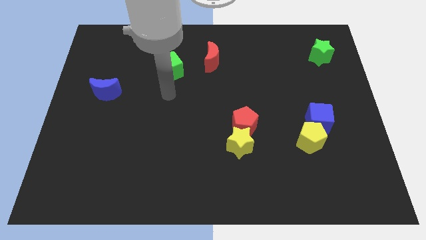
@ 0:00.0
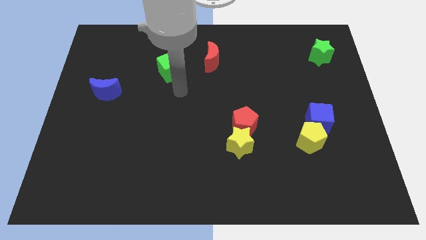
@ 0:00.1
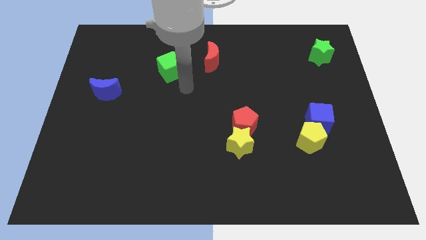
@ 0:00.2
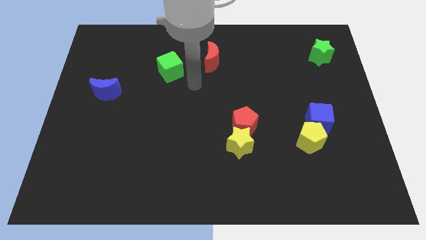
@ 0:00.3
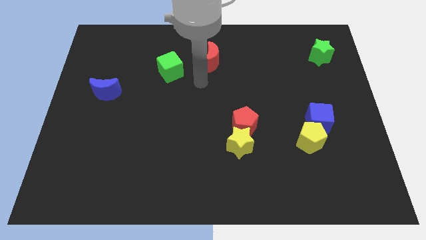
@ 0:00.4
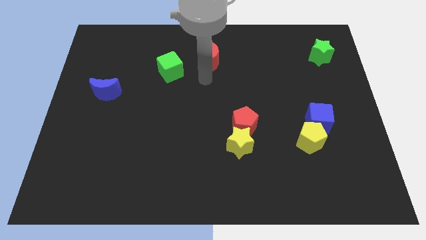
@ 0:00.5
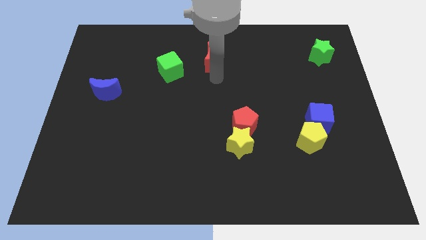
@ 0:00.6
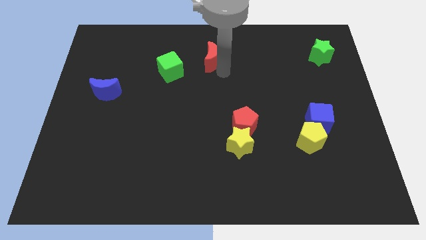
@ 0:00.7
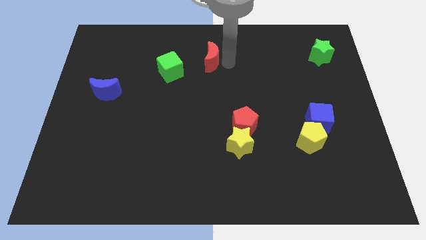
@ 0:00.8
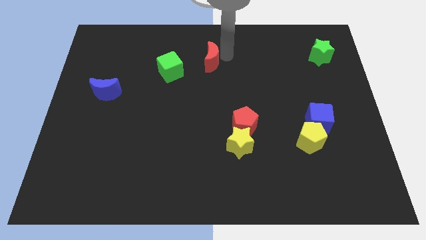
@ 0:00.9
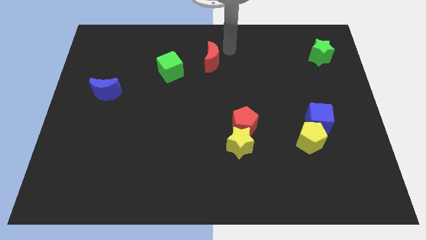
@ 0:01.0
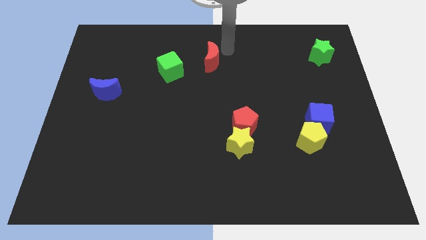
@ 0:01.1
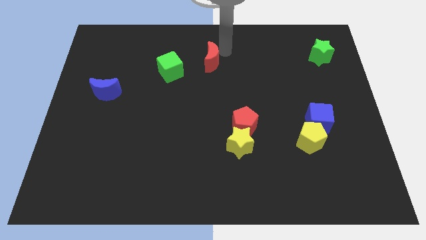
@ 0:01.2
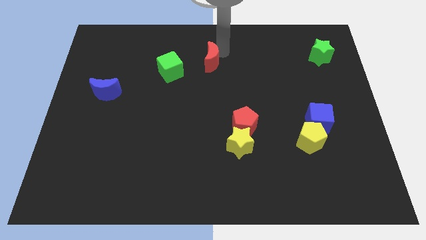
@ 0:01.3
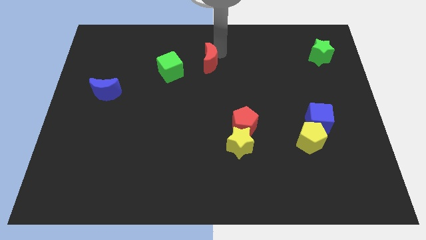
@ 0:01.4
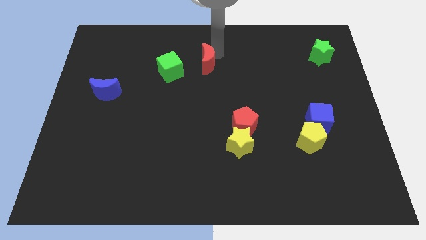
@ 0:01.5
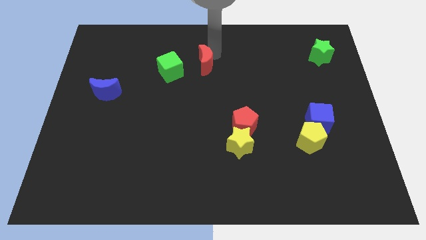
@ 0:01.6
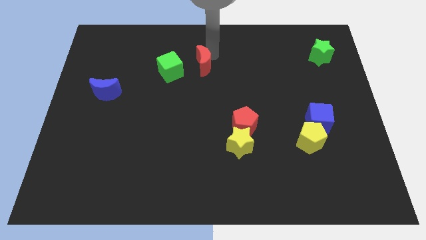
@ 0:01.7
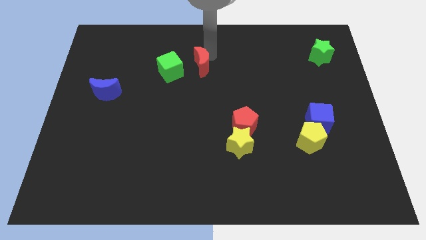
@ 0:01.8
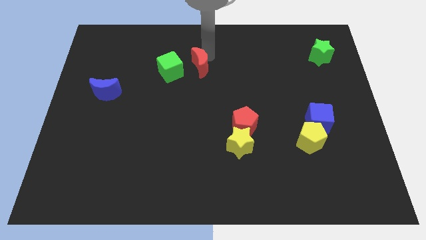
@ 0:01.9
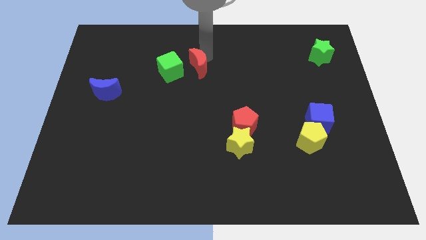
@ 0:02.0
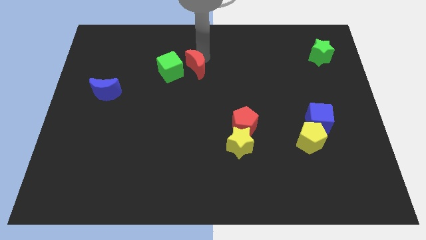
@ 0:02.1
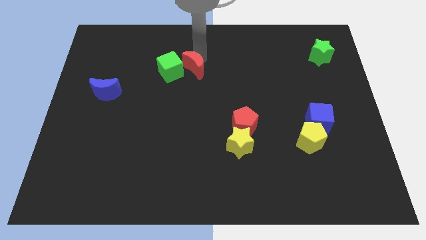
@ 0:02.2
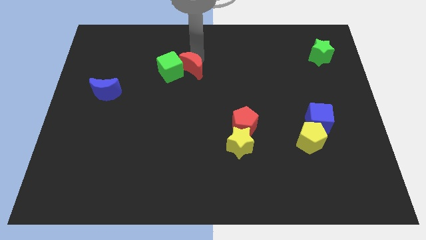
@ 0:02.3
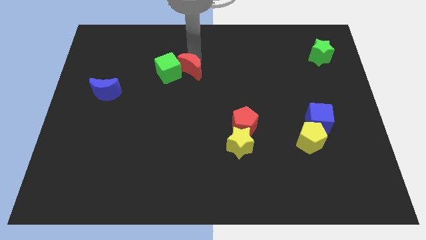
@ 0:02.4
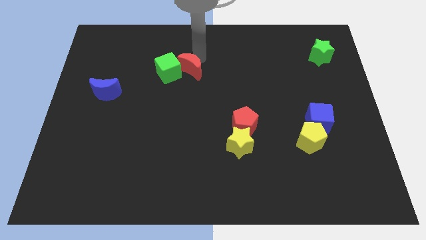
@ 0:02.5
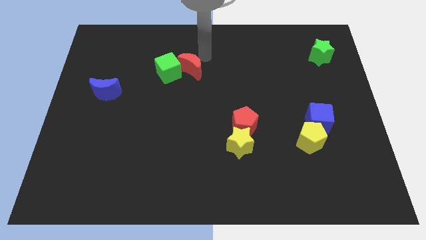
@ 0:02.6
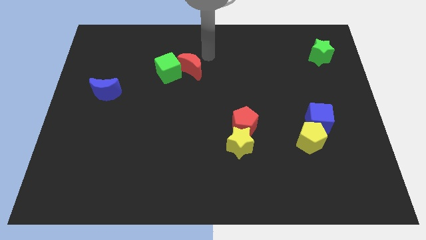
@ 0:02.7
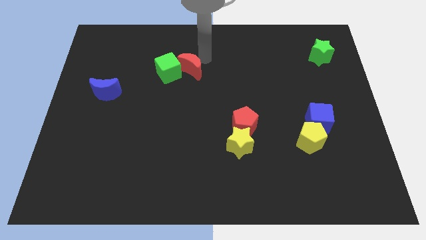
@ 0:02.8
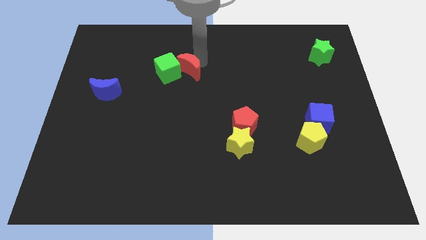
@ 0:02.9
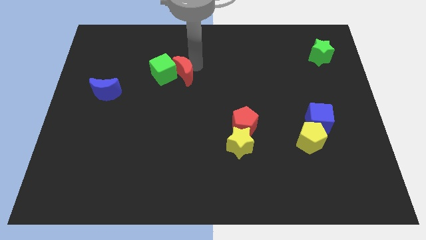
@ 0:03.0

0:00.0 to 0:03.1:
push the red moon slightly downwards and then left

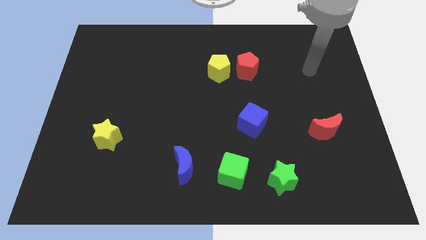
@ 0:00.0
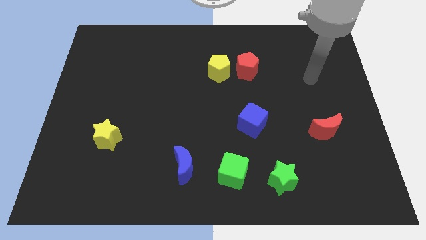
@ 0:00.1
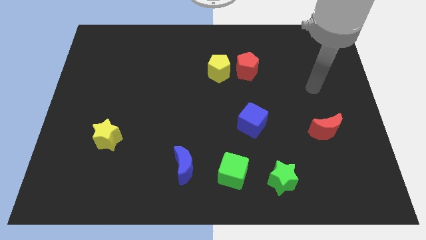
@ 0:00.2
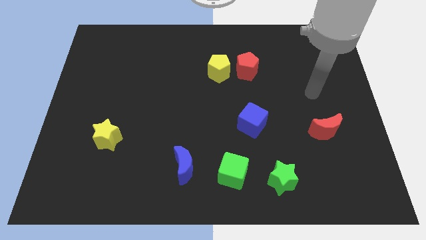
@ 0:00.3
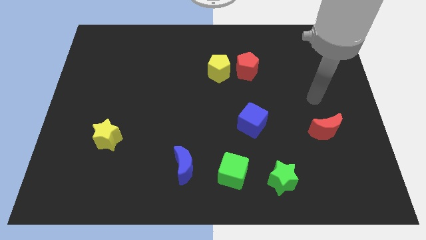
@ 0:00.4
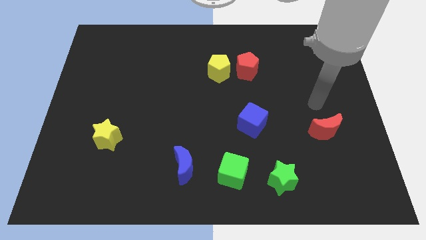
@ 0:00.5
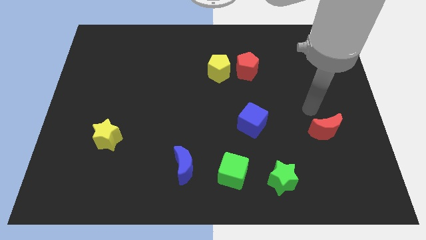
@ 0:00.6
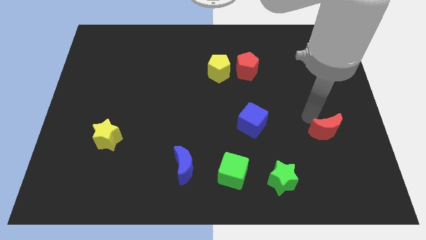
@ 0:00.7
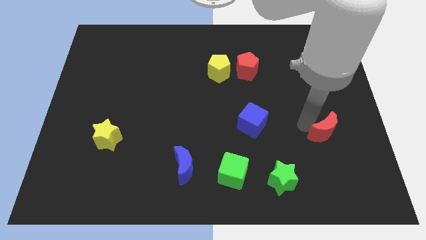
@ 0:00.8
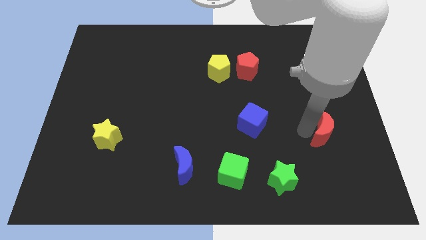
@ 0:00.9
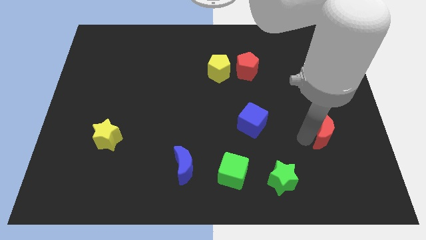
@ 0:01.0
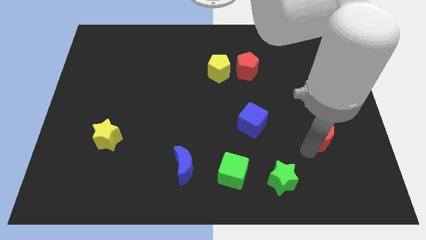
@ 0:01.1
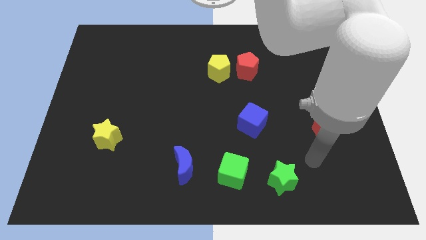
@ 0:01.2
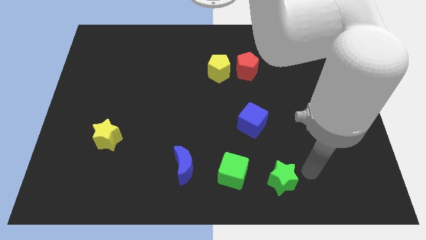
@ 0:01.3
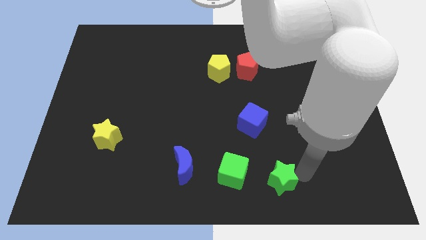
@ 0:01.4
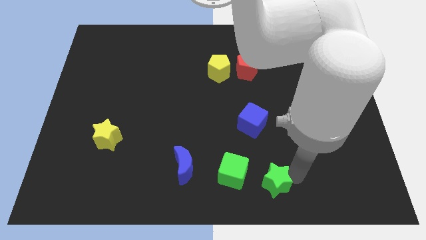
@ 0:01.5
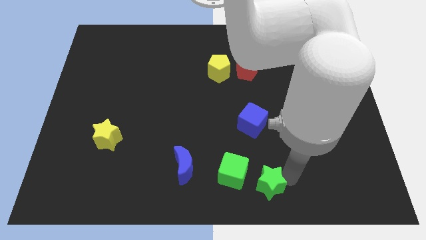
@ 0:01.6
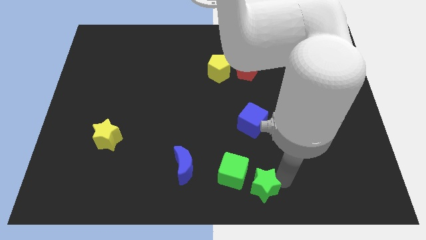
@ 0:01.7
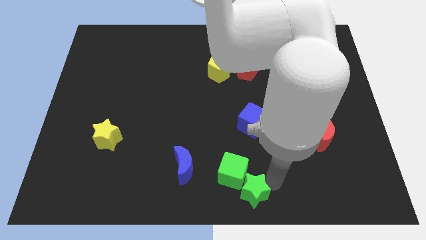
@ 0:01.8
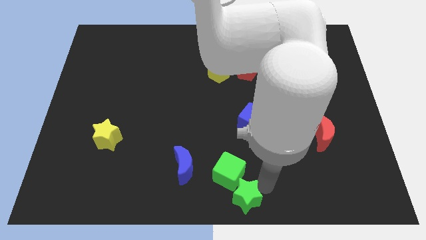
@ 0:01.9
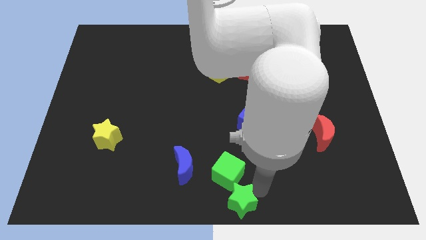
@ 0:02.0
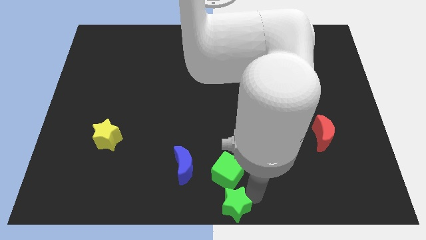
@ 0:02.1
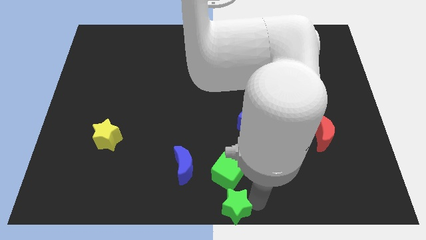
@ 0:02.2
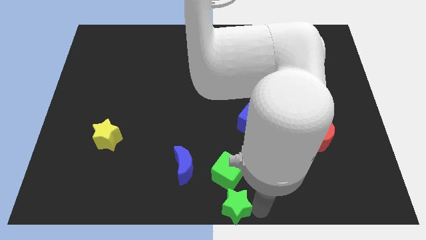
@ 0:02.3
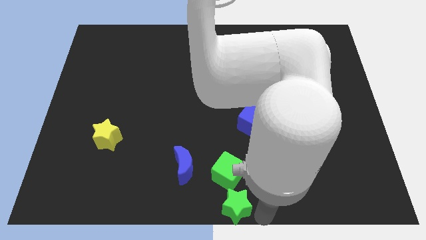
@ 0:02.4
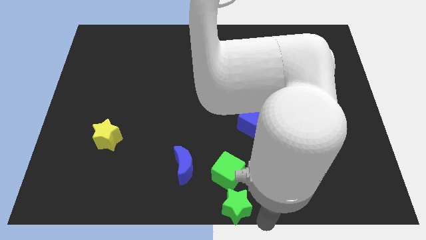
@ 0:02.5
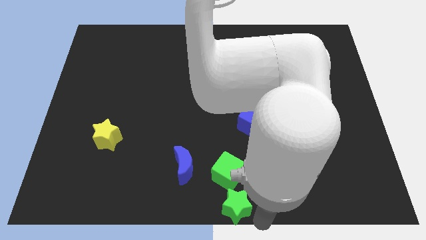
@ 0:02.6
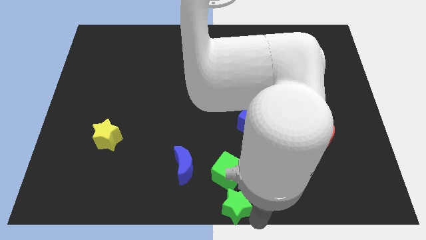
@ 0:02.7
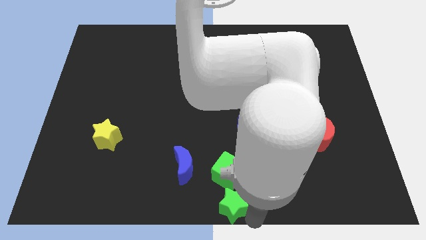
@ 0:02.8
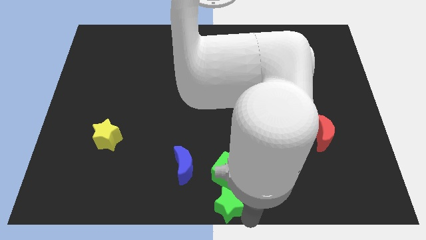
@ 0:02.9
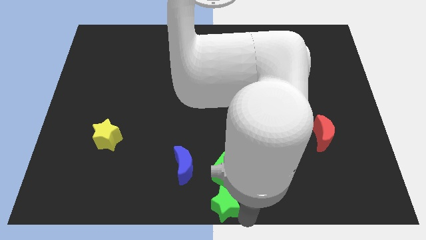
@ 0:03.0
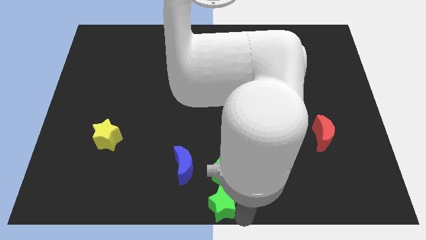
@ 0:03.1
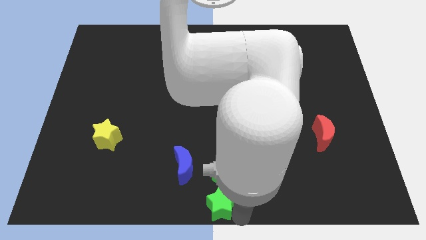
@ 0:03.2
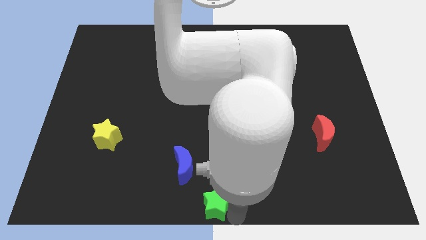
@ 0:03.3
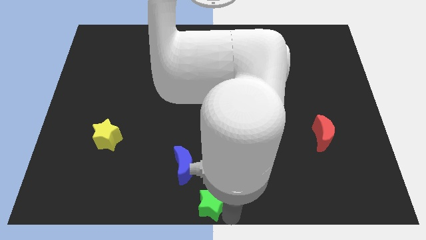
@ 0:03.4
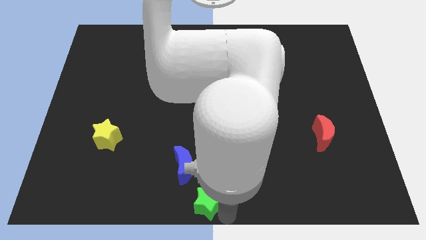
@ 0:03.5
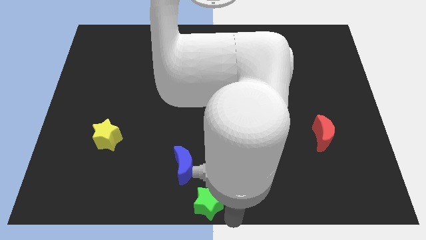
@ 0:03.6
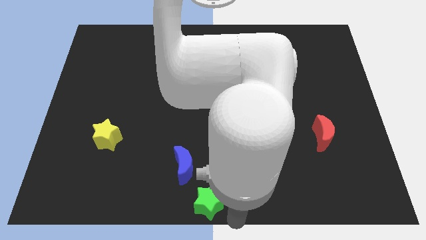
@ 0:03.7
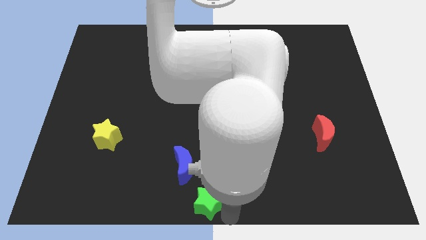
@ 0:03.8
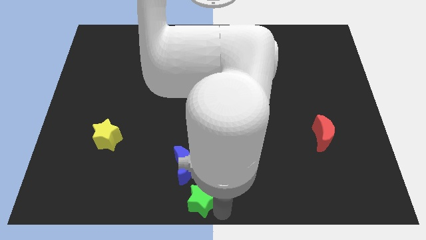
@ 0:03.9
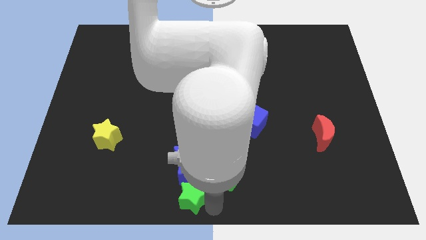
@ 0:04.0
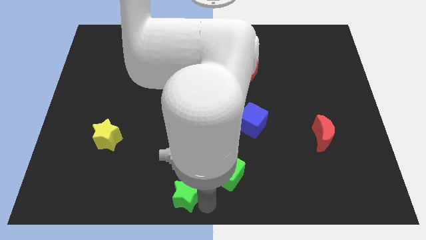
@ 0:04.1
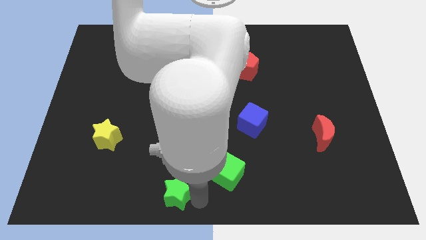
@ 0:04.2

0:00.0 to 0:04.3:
move the green star to the left

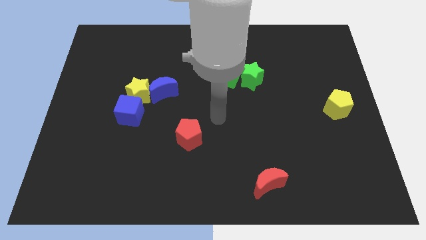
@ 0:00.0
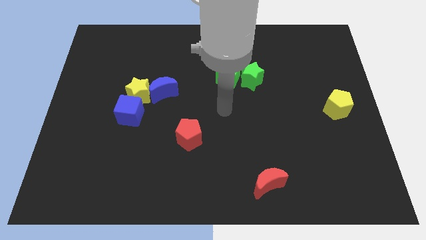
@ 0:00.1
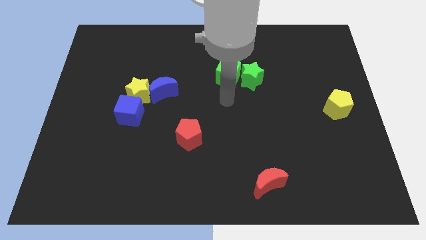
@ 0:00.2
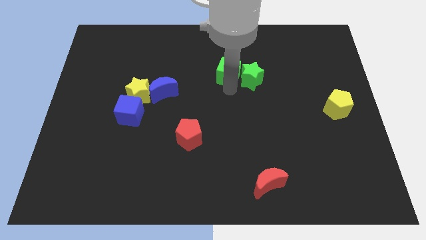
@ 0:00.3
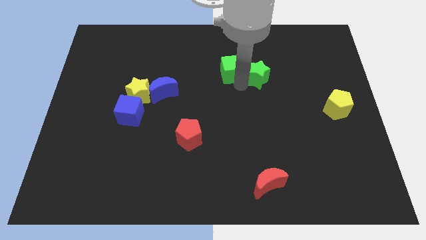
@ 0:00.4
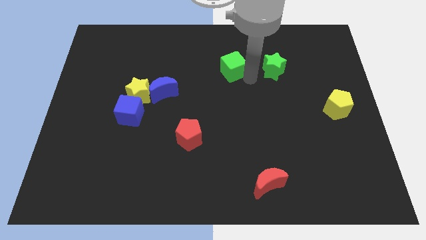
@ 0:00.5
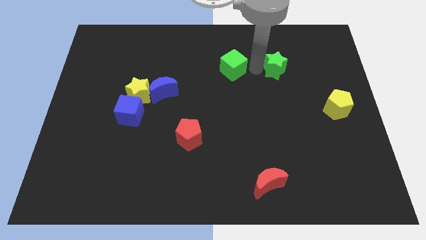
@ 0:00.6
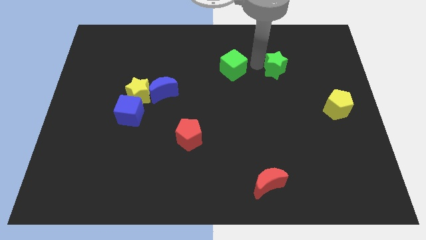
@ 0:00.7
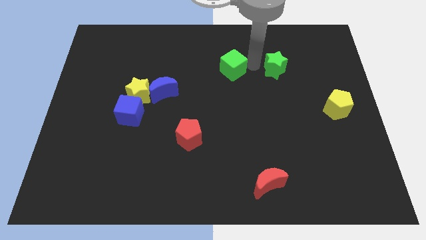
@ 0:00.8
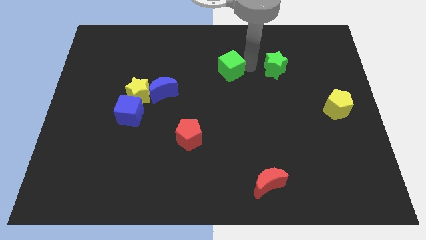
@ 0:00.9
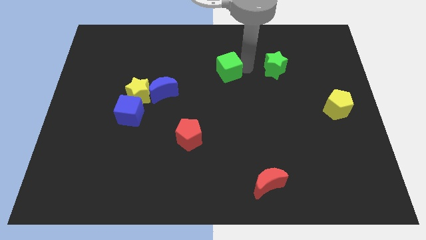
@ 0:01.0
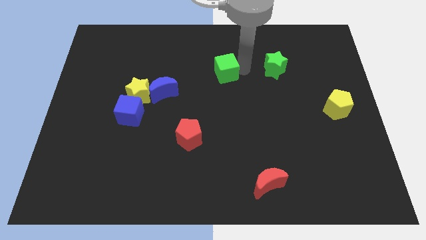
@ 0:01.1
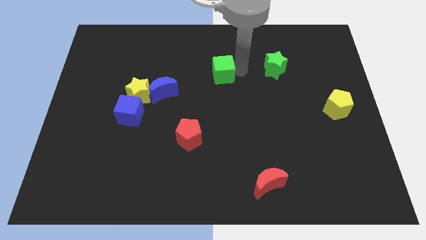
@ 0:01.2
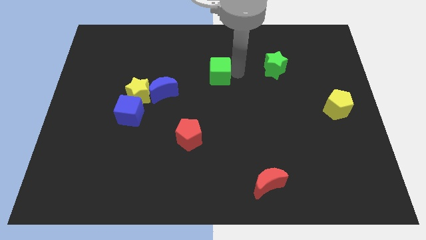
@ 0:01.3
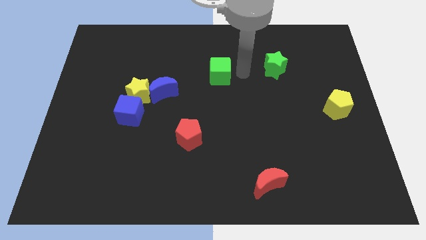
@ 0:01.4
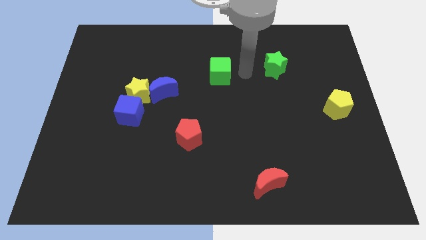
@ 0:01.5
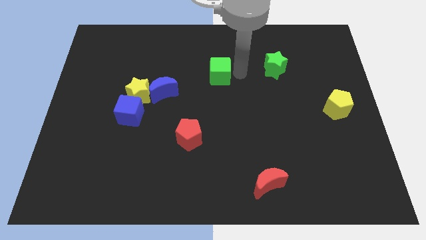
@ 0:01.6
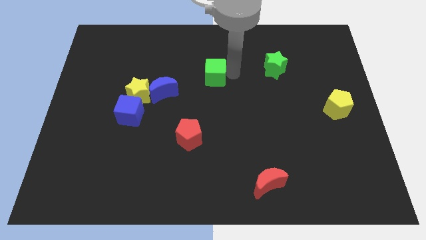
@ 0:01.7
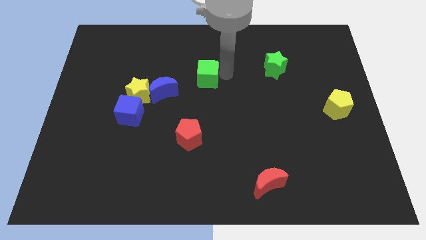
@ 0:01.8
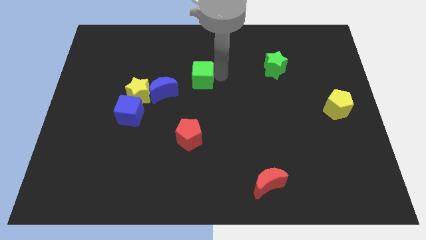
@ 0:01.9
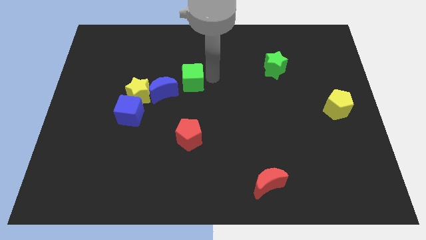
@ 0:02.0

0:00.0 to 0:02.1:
slightly move the green cube to the left
